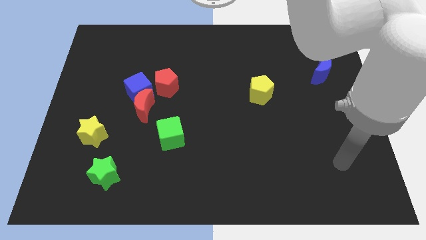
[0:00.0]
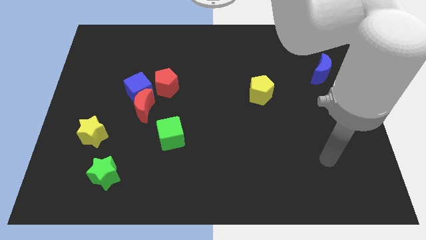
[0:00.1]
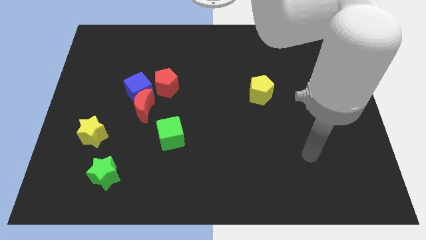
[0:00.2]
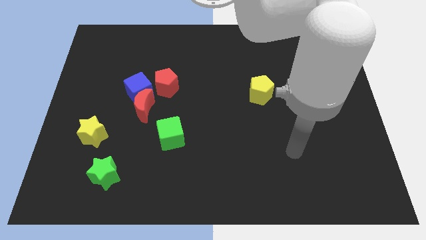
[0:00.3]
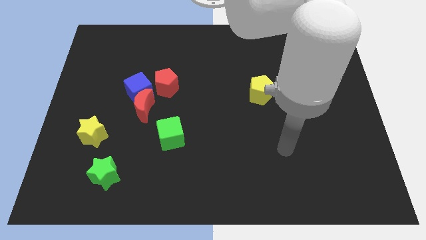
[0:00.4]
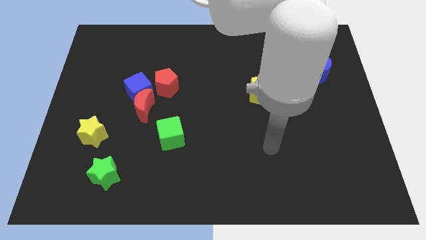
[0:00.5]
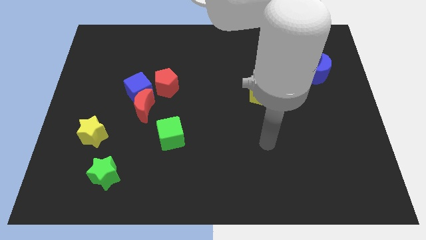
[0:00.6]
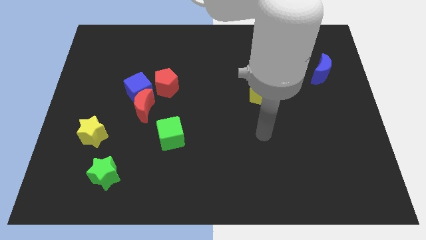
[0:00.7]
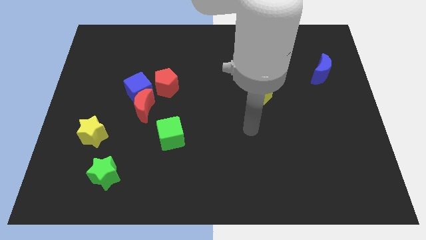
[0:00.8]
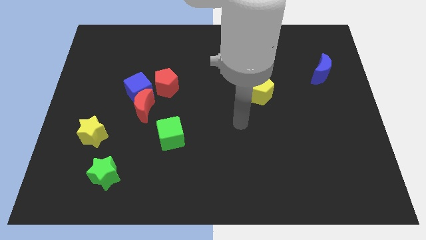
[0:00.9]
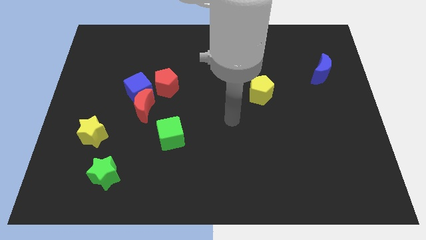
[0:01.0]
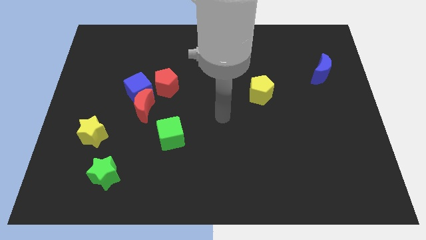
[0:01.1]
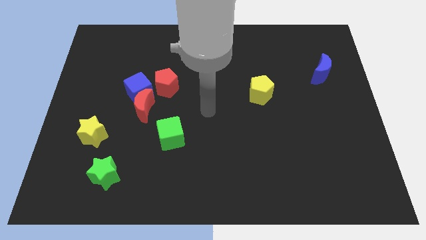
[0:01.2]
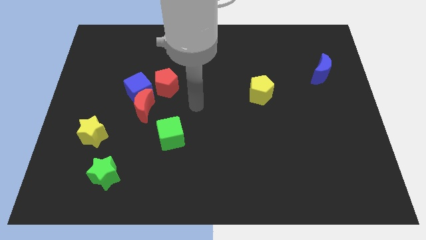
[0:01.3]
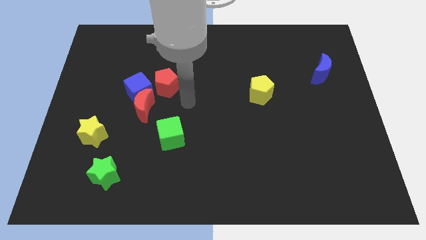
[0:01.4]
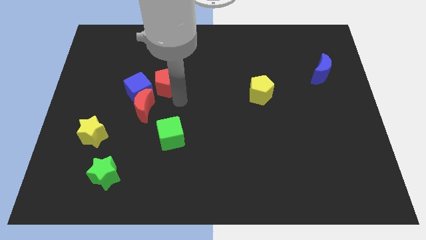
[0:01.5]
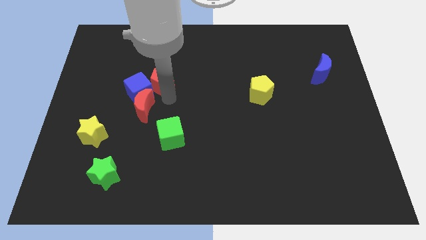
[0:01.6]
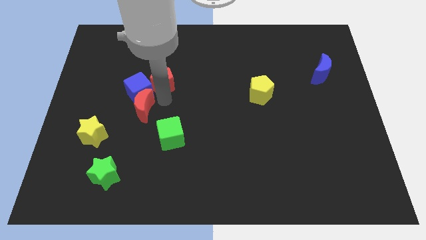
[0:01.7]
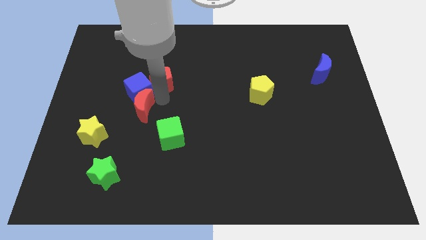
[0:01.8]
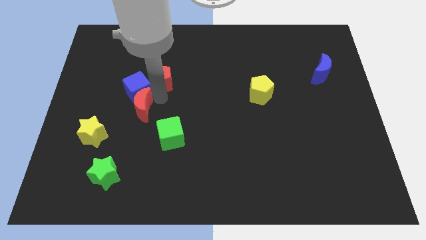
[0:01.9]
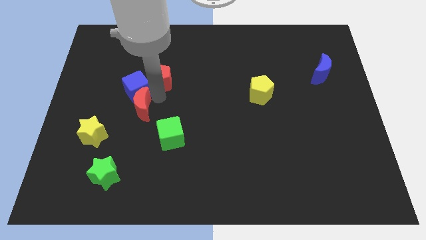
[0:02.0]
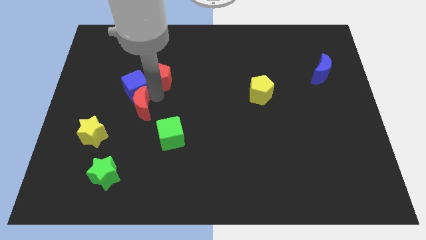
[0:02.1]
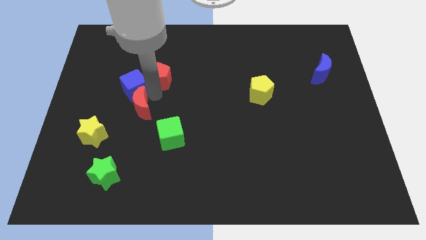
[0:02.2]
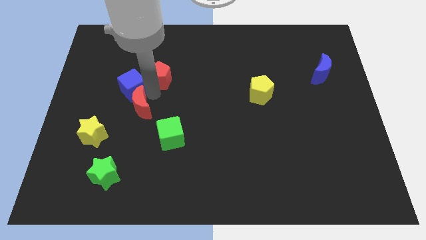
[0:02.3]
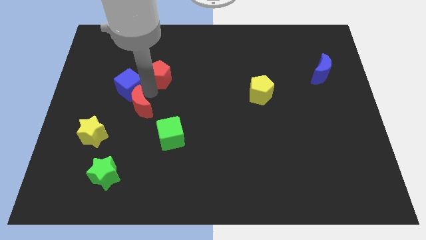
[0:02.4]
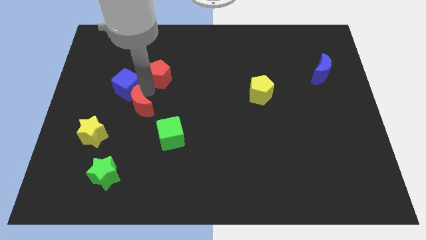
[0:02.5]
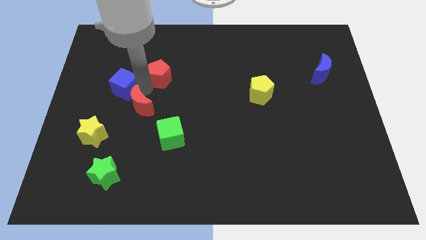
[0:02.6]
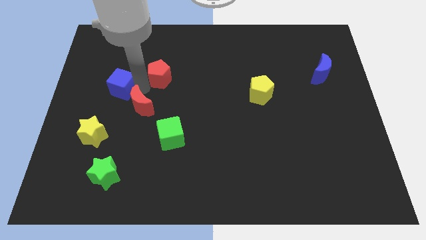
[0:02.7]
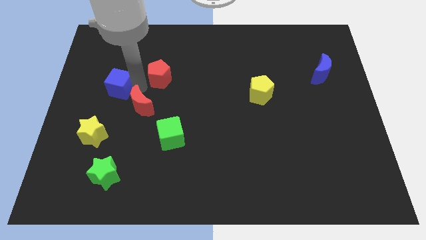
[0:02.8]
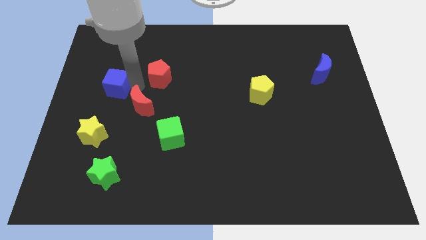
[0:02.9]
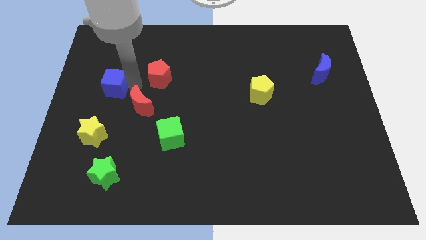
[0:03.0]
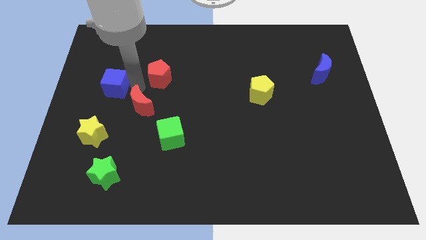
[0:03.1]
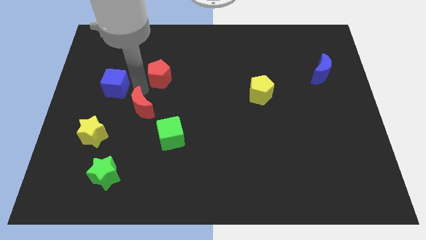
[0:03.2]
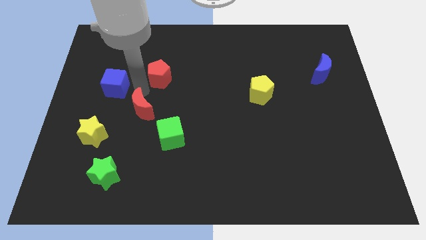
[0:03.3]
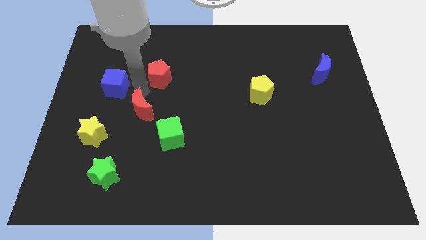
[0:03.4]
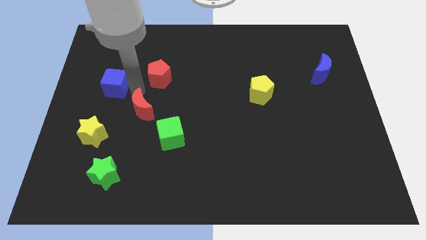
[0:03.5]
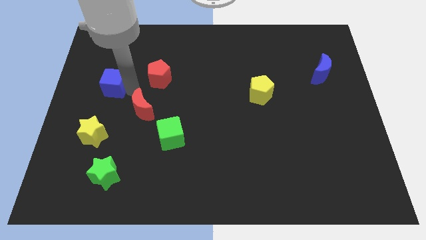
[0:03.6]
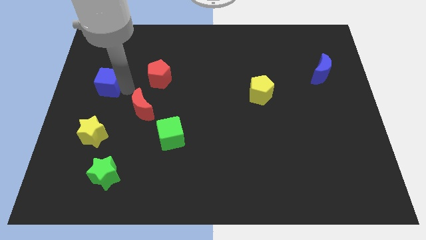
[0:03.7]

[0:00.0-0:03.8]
pull the blue cube apart from the red moon and red pentagon

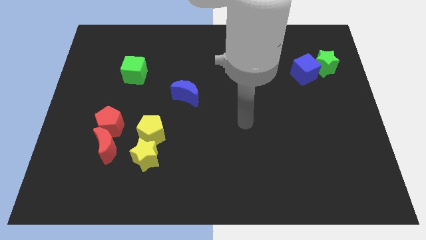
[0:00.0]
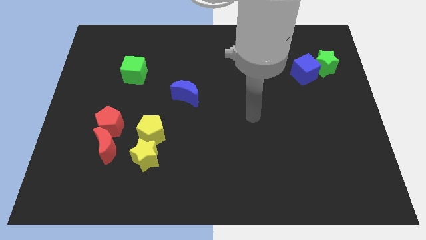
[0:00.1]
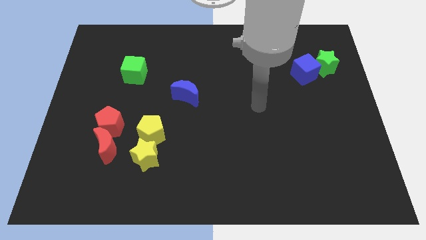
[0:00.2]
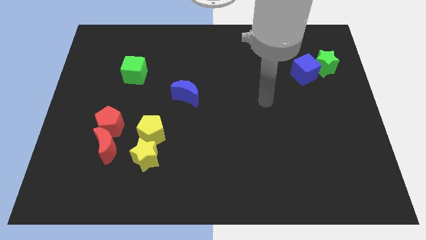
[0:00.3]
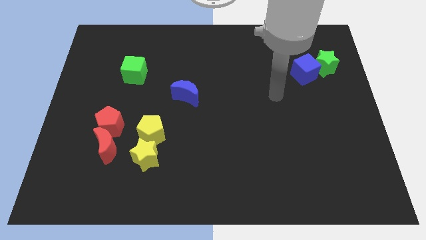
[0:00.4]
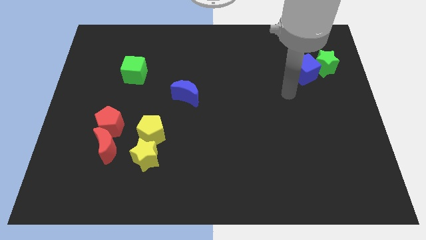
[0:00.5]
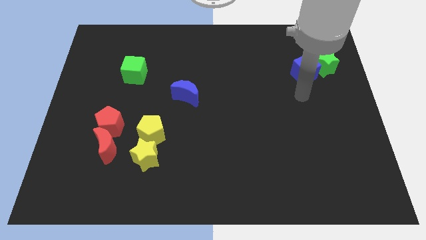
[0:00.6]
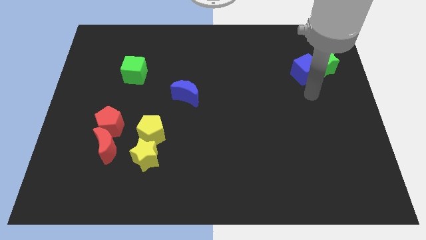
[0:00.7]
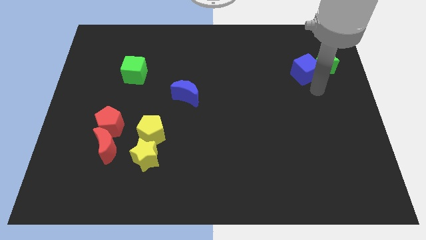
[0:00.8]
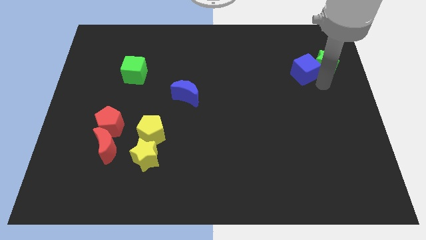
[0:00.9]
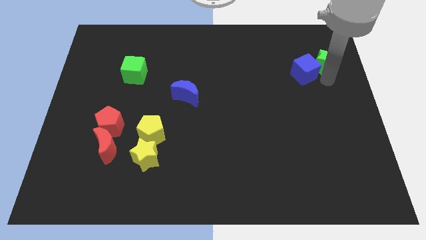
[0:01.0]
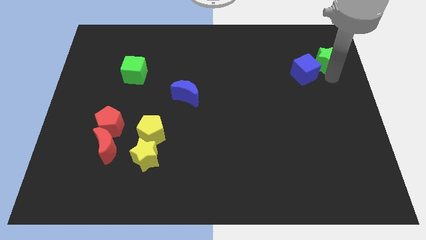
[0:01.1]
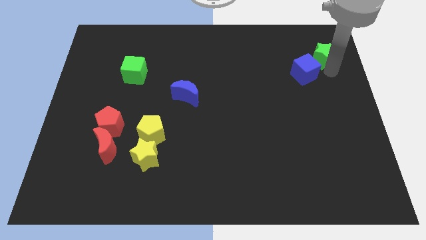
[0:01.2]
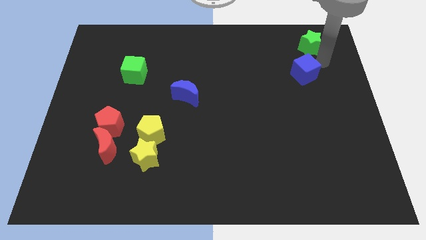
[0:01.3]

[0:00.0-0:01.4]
pull the blue cube apart from the green star

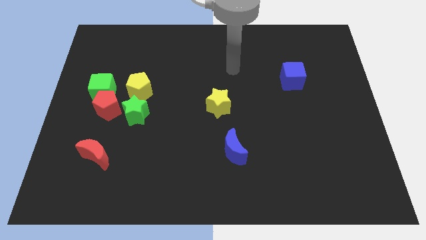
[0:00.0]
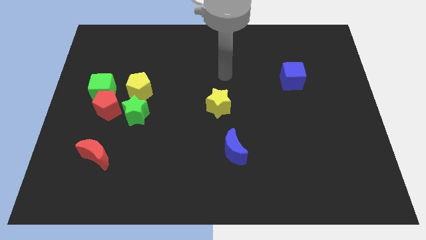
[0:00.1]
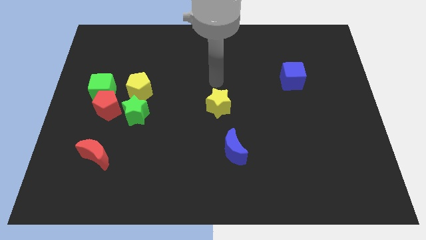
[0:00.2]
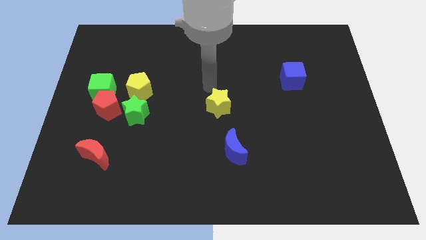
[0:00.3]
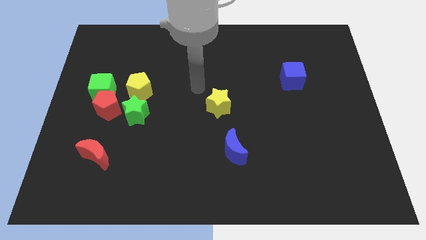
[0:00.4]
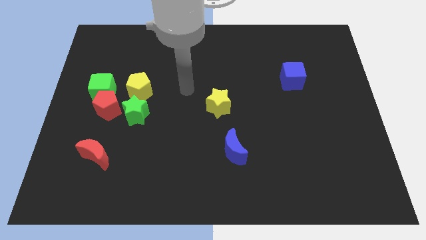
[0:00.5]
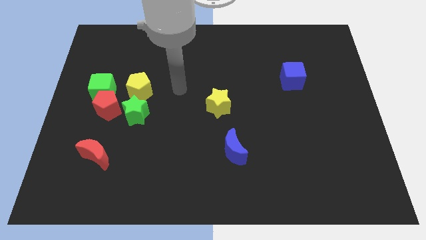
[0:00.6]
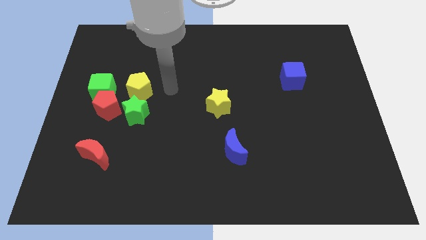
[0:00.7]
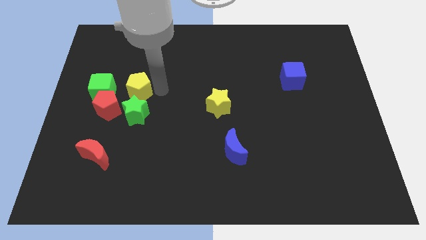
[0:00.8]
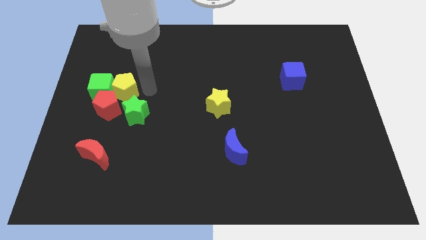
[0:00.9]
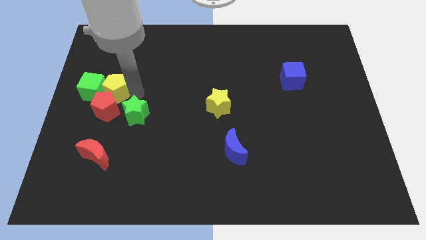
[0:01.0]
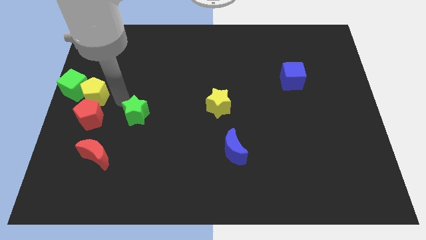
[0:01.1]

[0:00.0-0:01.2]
move the green star away from the red pentagon and yellow pentagon

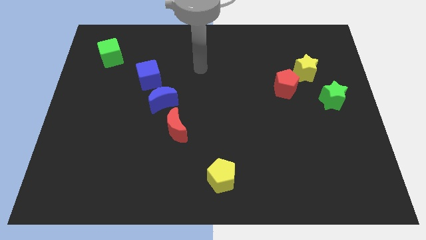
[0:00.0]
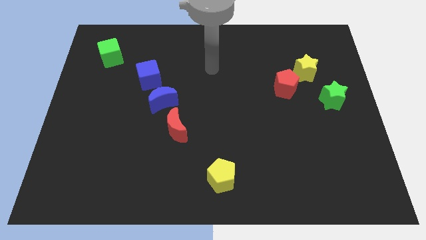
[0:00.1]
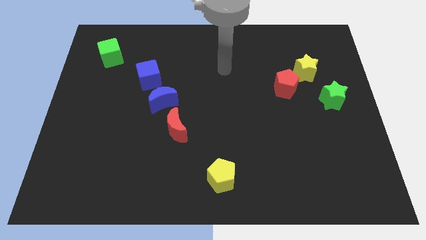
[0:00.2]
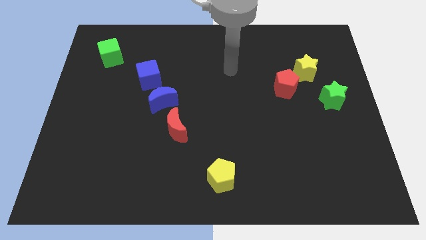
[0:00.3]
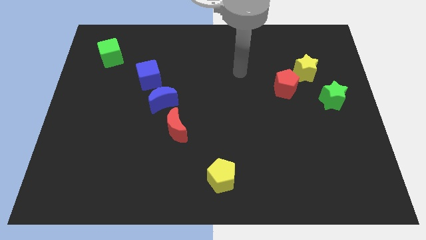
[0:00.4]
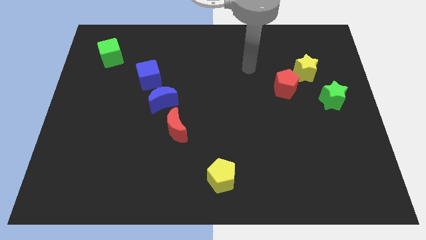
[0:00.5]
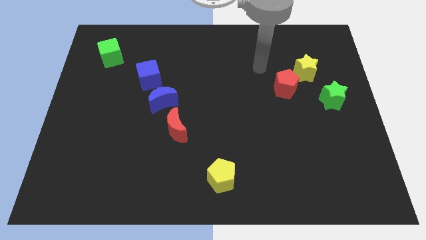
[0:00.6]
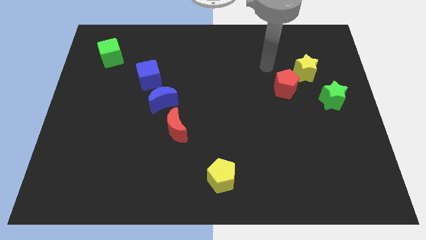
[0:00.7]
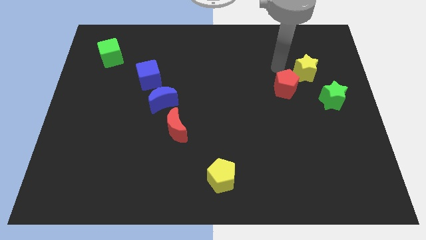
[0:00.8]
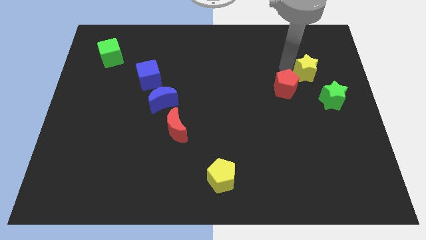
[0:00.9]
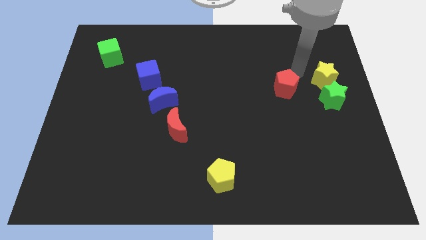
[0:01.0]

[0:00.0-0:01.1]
separate the red pentagon from the yellow star

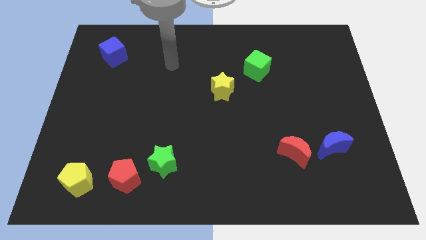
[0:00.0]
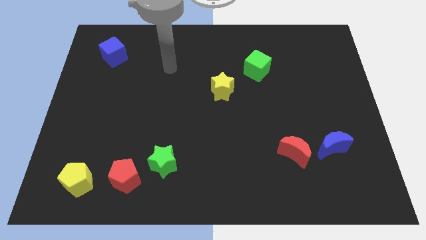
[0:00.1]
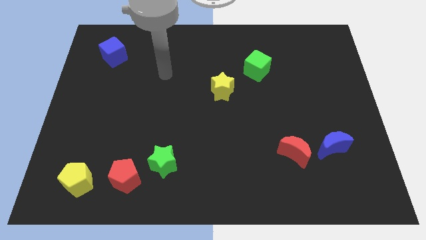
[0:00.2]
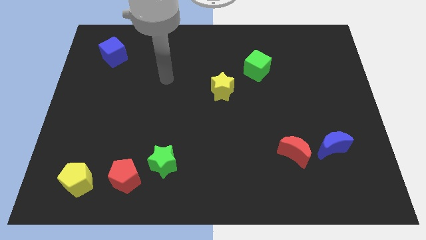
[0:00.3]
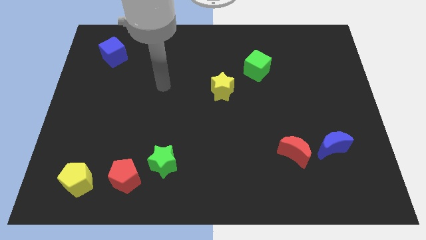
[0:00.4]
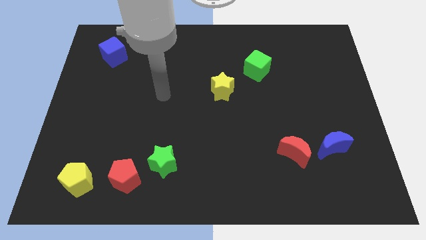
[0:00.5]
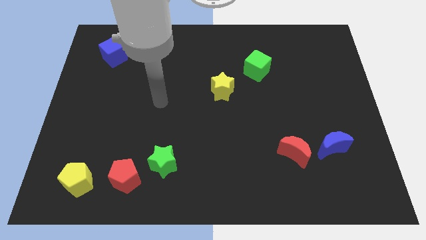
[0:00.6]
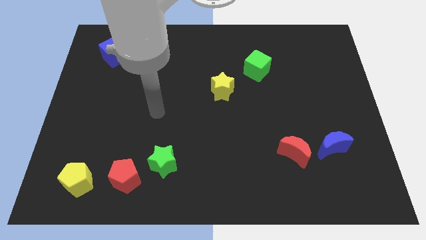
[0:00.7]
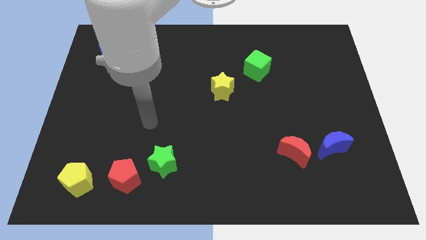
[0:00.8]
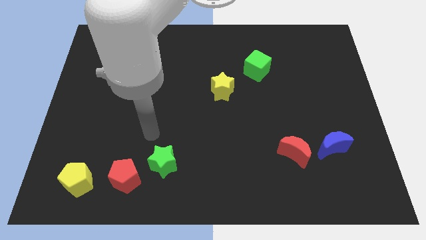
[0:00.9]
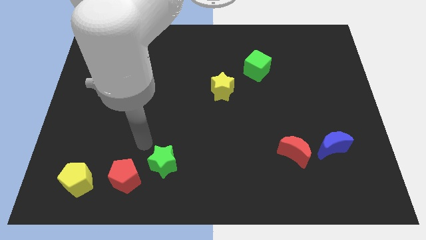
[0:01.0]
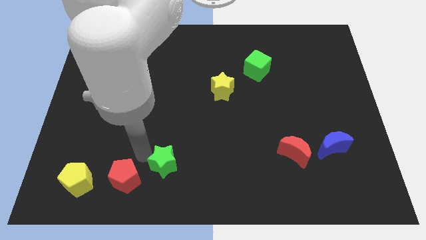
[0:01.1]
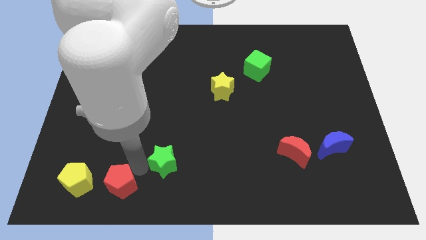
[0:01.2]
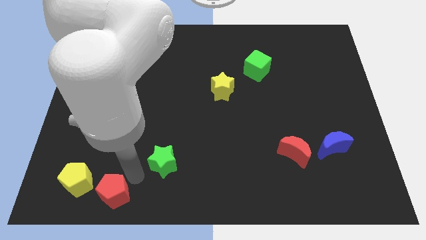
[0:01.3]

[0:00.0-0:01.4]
pull the green star apart from the red pentagon
